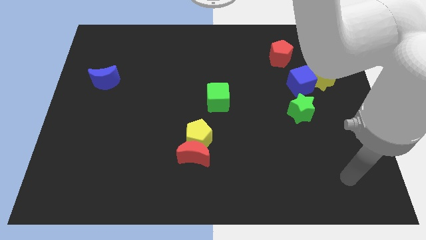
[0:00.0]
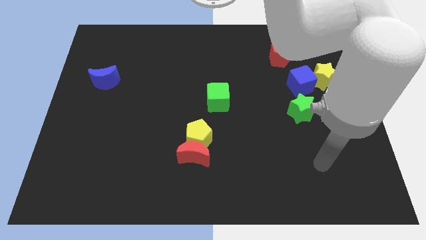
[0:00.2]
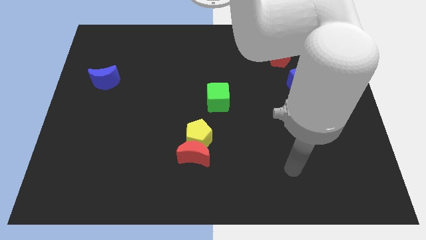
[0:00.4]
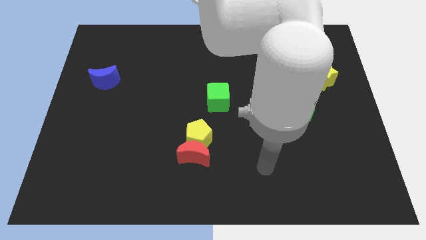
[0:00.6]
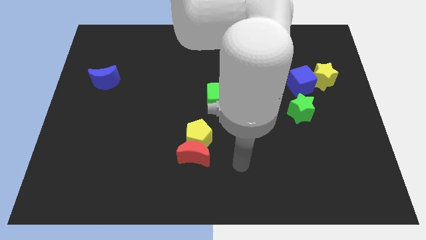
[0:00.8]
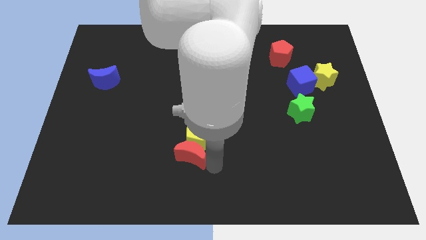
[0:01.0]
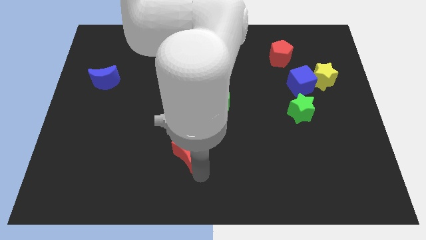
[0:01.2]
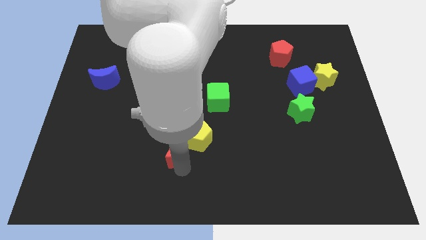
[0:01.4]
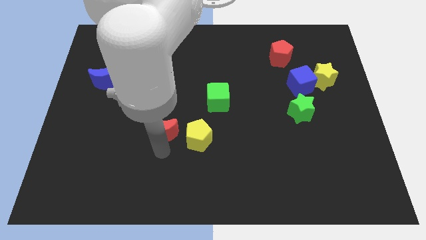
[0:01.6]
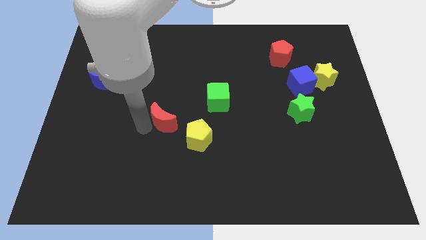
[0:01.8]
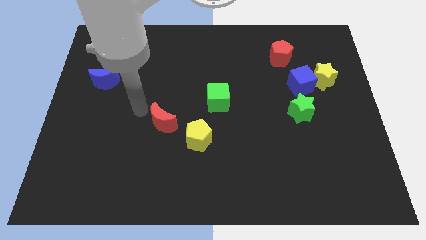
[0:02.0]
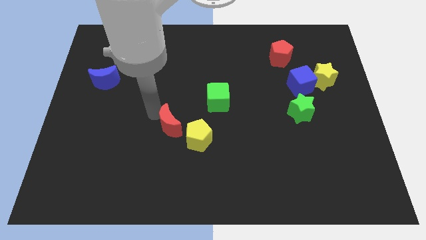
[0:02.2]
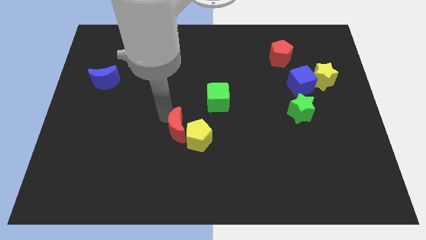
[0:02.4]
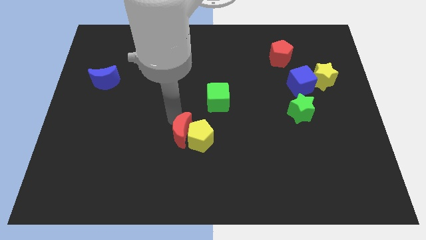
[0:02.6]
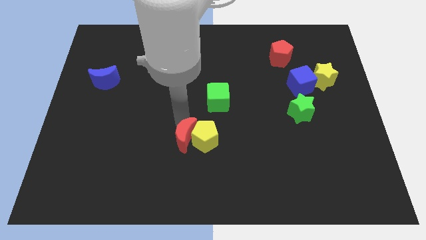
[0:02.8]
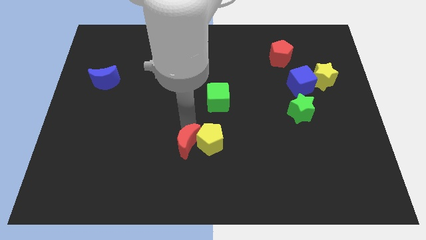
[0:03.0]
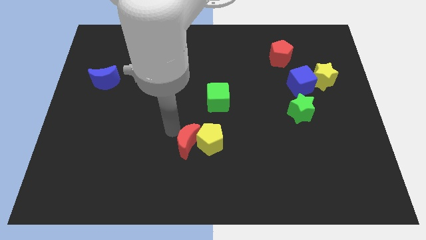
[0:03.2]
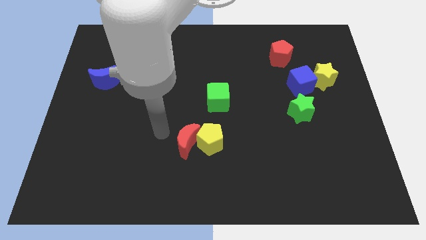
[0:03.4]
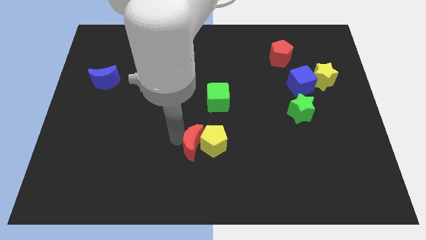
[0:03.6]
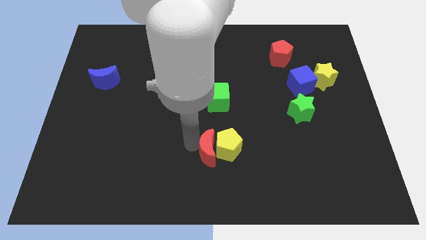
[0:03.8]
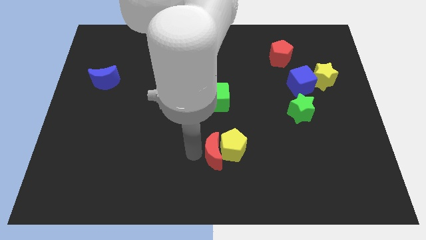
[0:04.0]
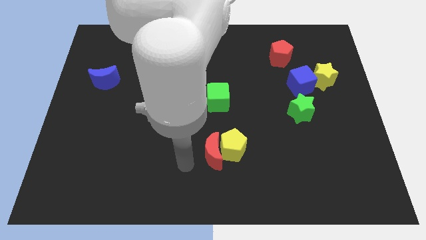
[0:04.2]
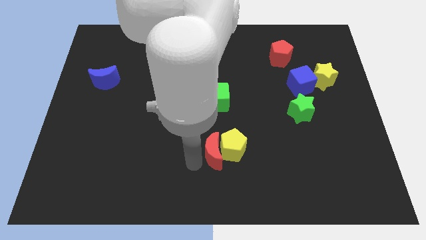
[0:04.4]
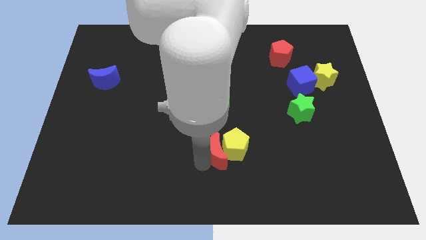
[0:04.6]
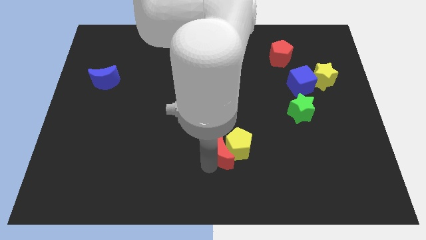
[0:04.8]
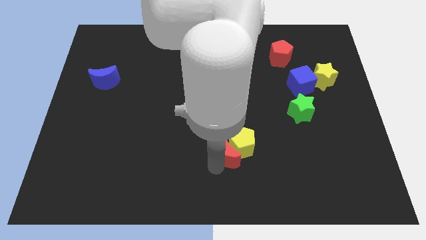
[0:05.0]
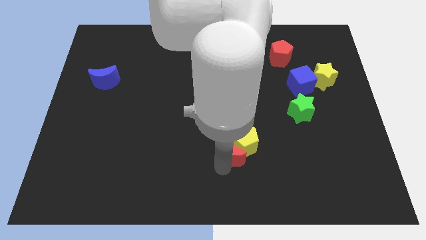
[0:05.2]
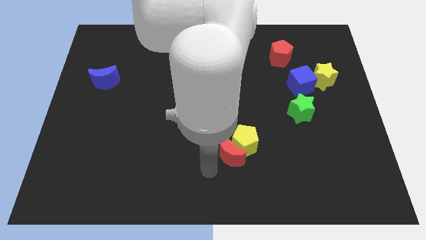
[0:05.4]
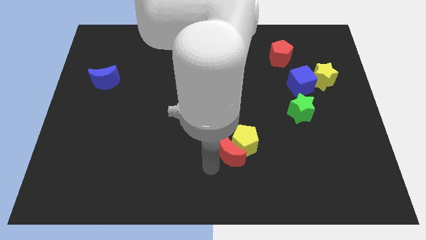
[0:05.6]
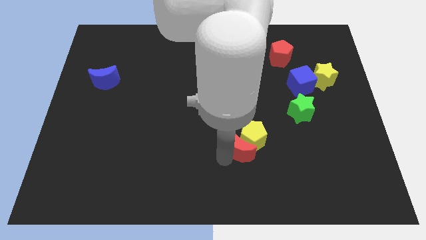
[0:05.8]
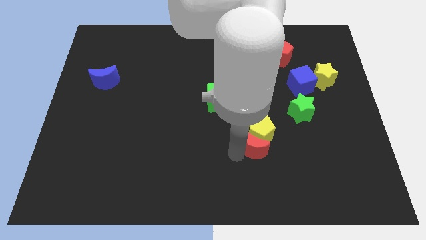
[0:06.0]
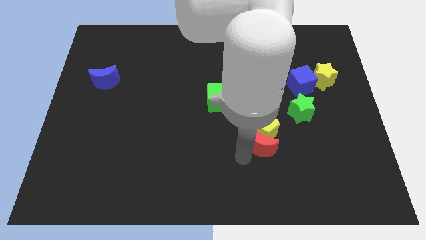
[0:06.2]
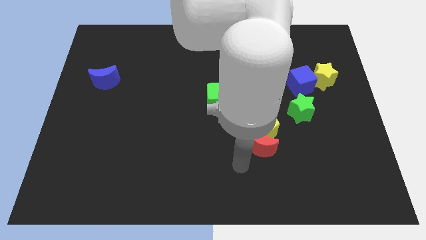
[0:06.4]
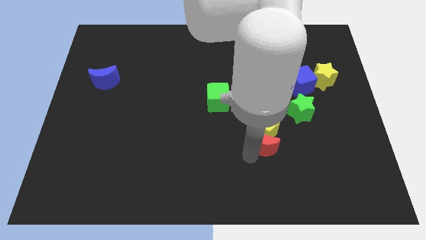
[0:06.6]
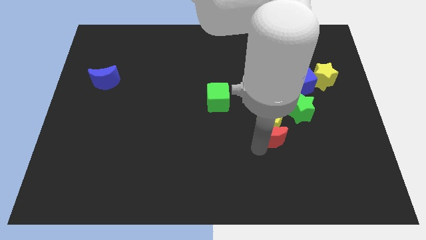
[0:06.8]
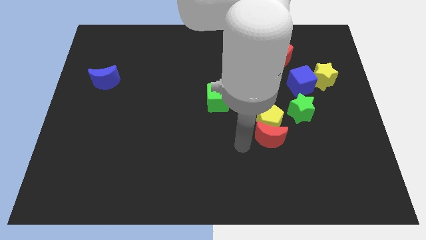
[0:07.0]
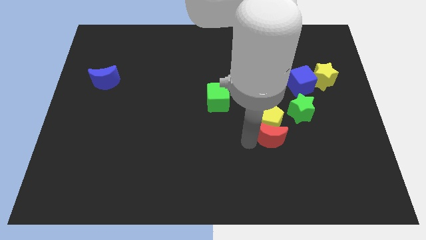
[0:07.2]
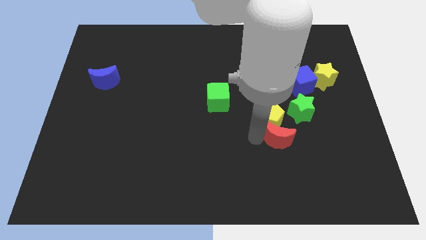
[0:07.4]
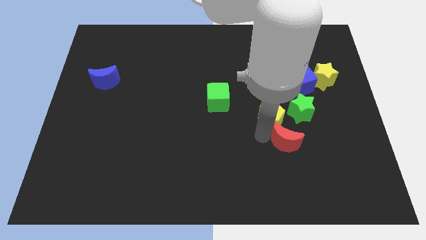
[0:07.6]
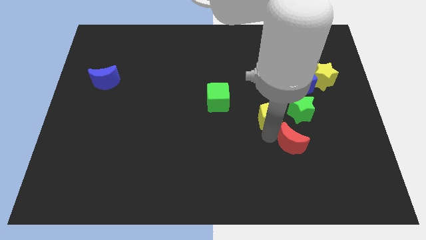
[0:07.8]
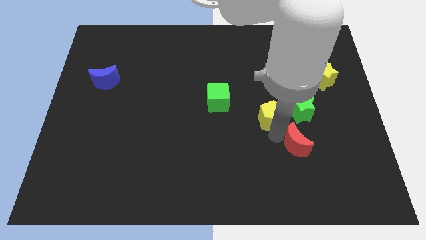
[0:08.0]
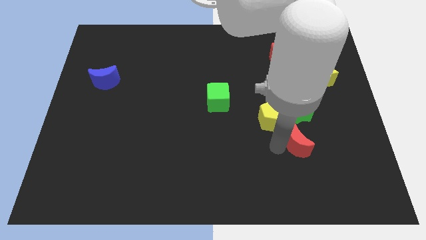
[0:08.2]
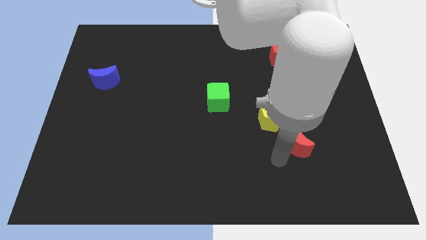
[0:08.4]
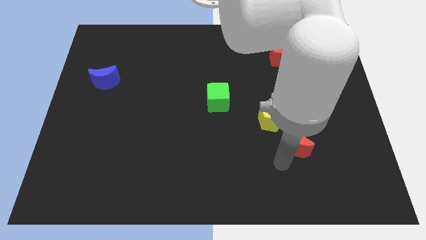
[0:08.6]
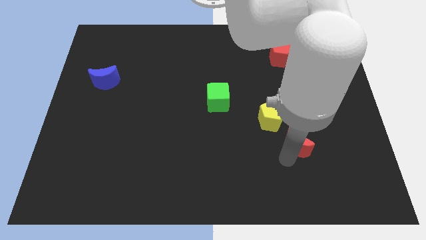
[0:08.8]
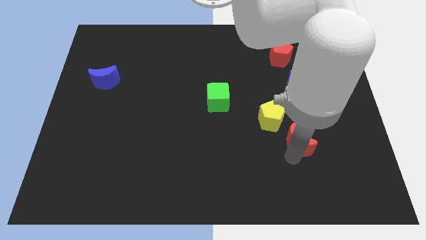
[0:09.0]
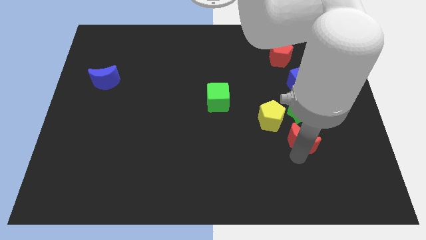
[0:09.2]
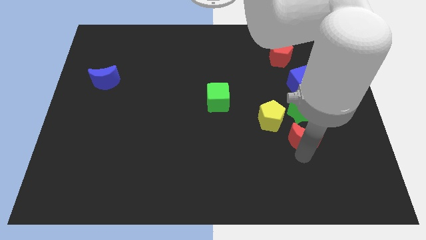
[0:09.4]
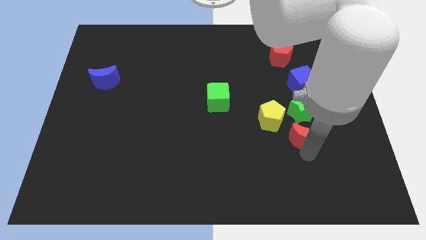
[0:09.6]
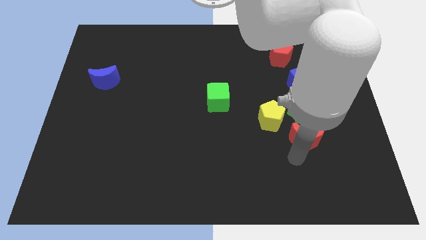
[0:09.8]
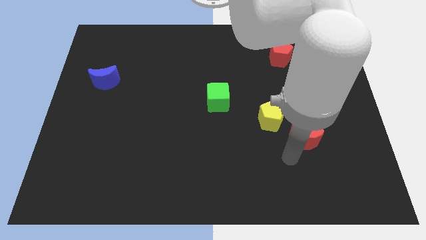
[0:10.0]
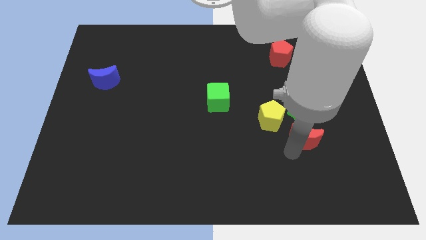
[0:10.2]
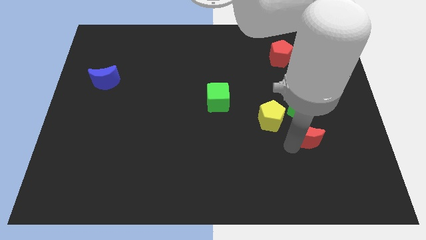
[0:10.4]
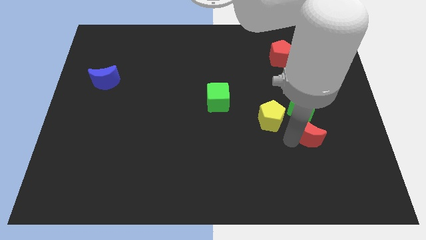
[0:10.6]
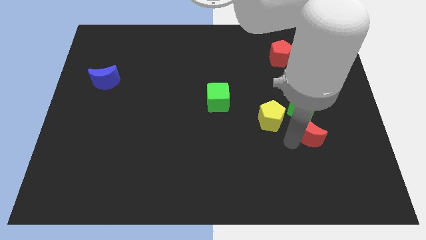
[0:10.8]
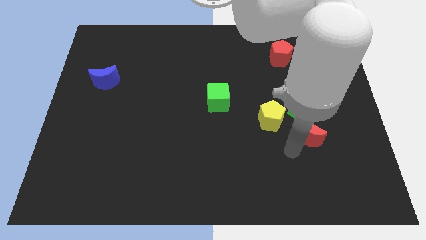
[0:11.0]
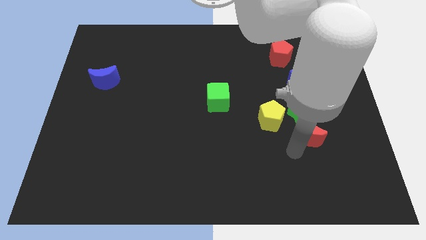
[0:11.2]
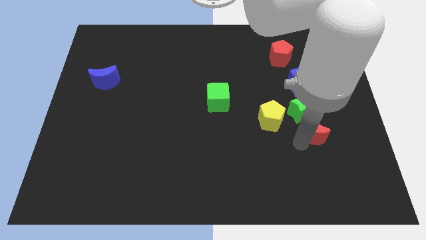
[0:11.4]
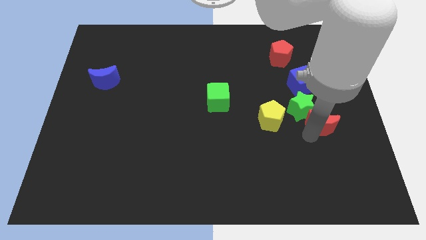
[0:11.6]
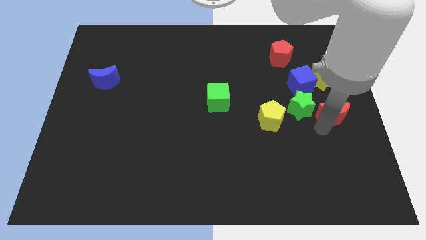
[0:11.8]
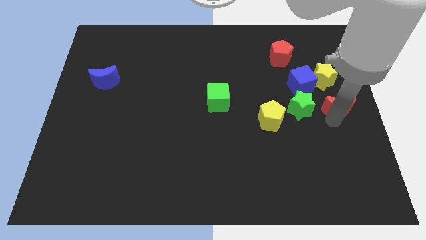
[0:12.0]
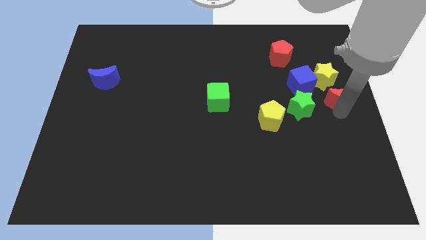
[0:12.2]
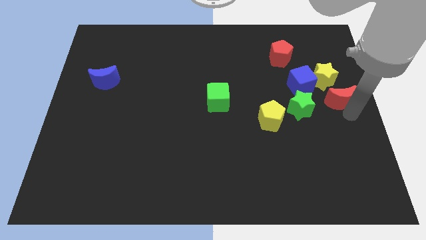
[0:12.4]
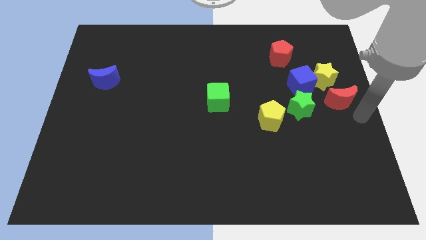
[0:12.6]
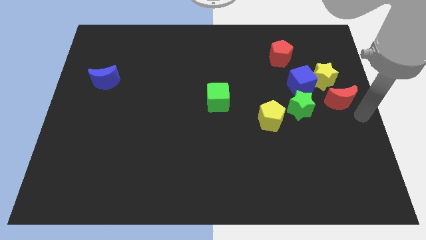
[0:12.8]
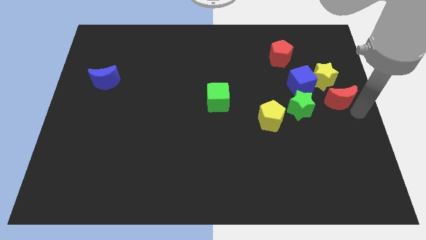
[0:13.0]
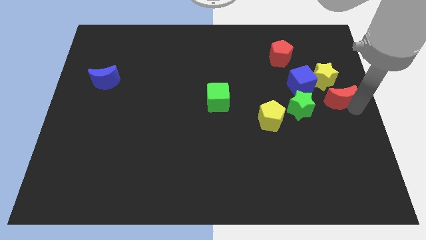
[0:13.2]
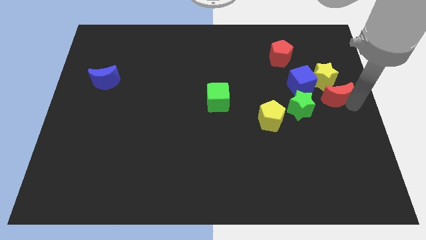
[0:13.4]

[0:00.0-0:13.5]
move the red moon close to the yellow star
